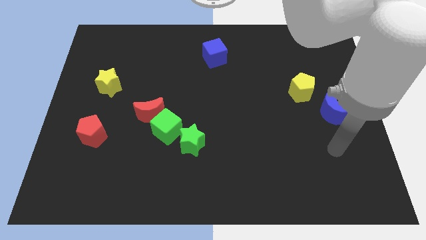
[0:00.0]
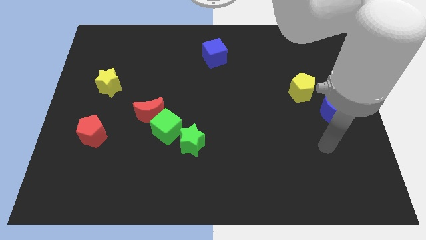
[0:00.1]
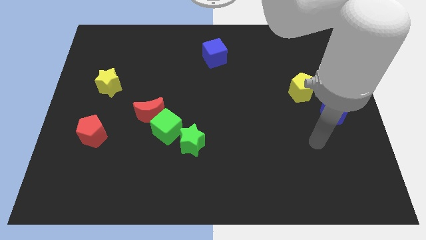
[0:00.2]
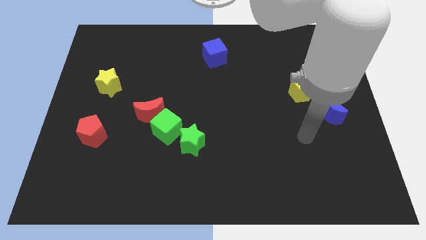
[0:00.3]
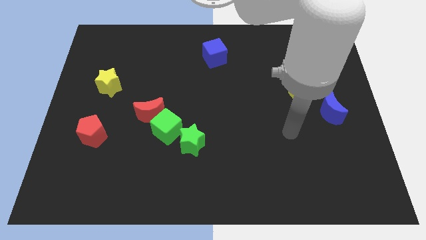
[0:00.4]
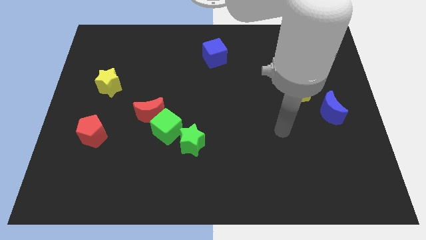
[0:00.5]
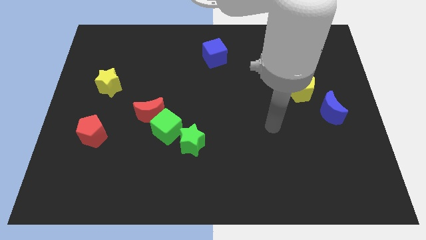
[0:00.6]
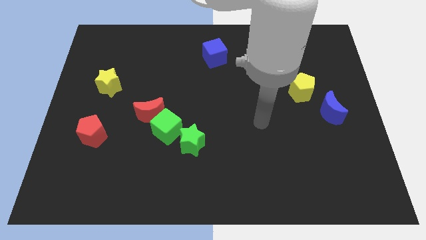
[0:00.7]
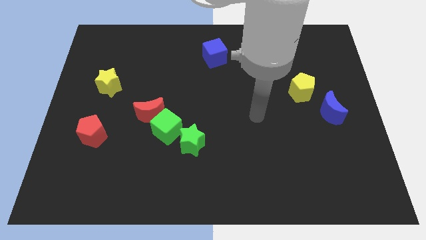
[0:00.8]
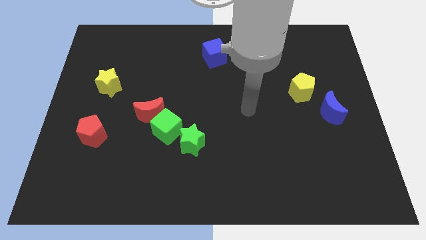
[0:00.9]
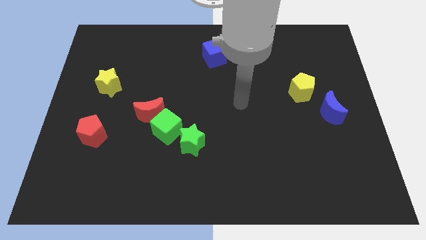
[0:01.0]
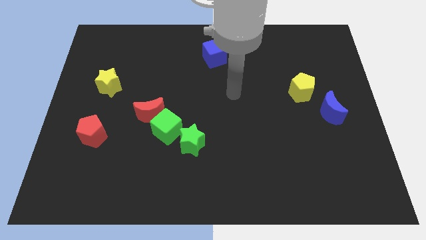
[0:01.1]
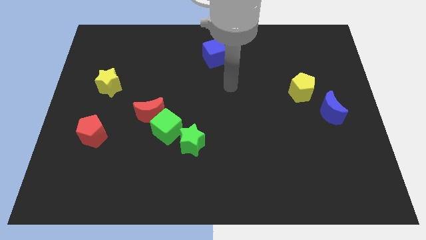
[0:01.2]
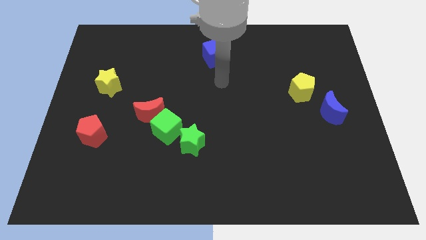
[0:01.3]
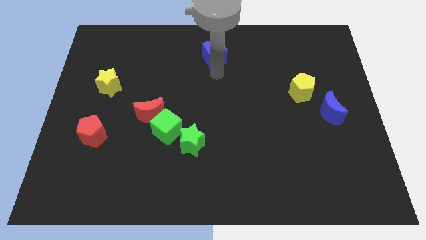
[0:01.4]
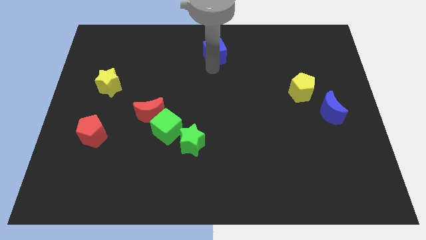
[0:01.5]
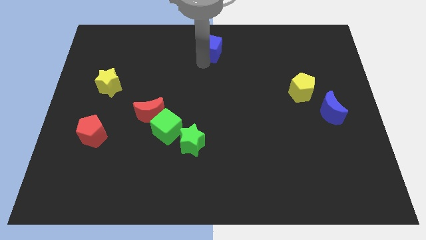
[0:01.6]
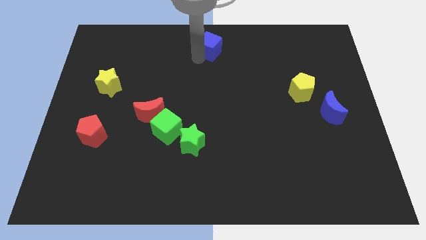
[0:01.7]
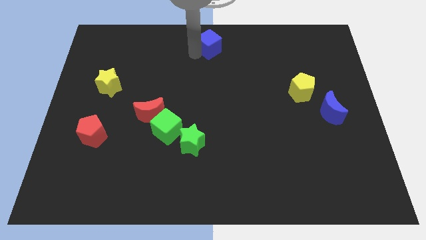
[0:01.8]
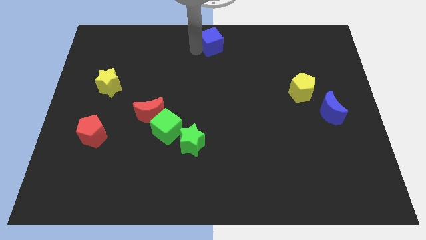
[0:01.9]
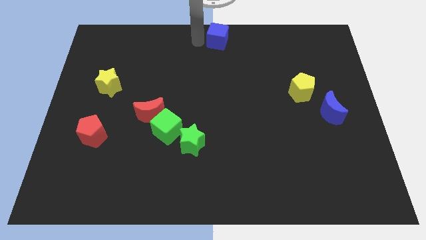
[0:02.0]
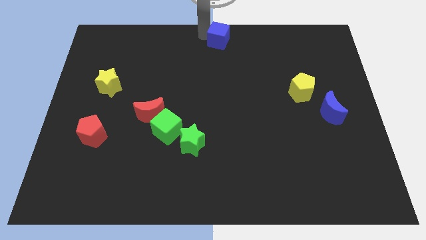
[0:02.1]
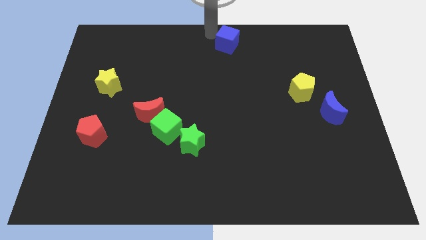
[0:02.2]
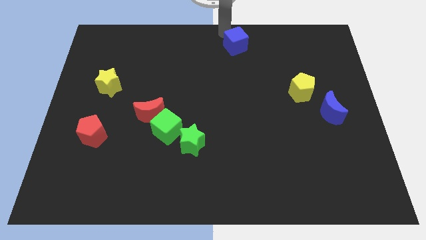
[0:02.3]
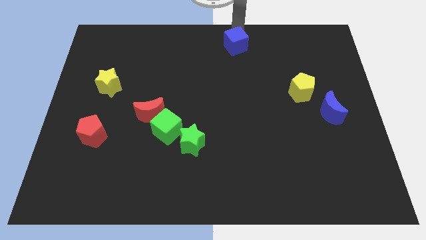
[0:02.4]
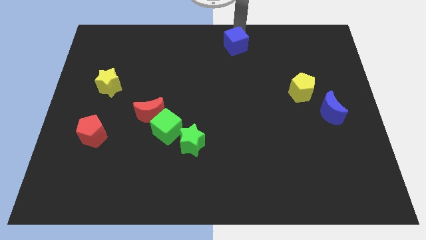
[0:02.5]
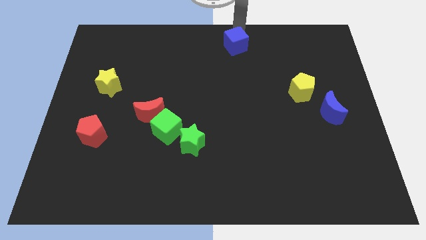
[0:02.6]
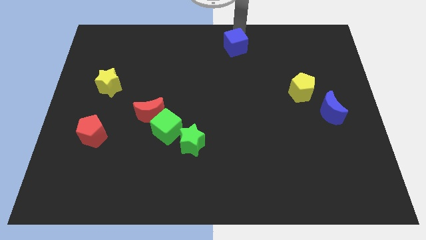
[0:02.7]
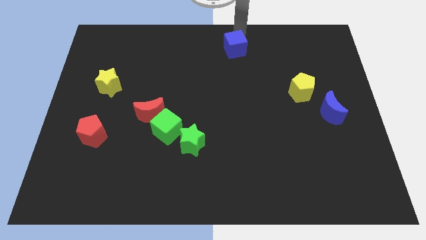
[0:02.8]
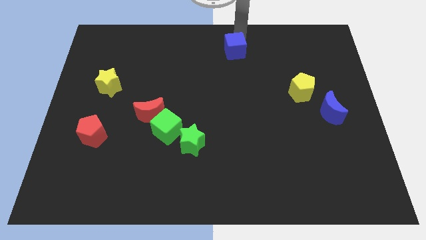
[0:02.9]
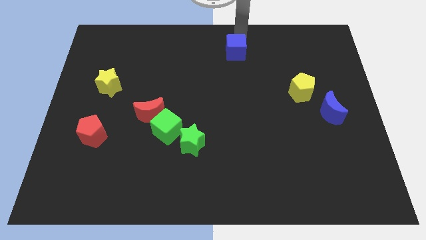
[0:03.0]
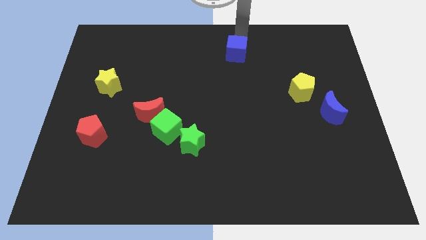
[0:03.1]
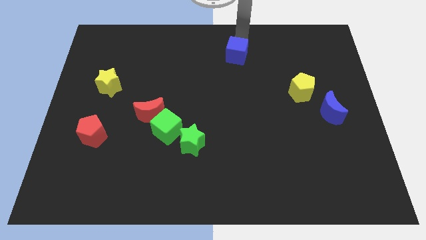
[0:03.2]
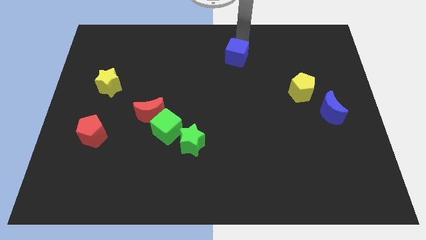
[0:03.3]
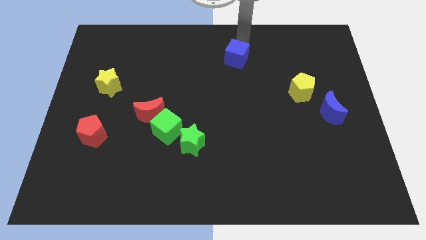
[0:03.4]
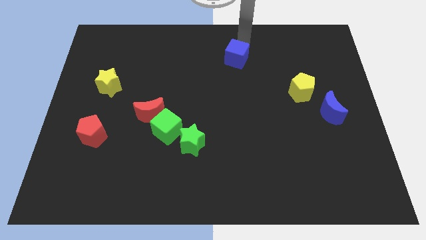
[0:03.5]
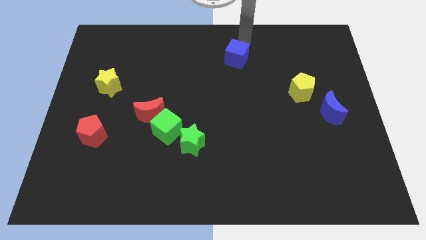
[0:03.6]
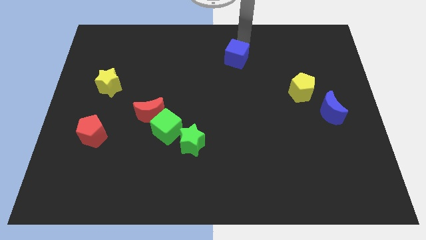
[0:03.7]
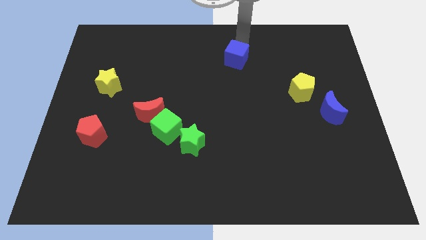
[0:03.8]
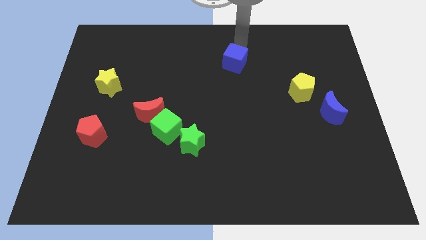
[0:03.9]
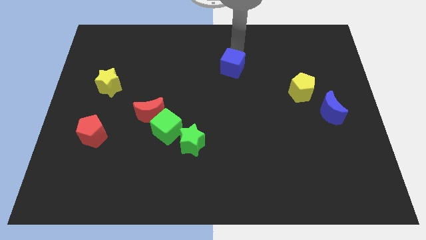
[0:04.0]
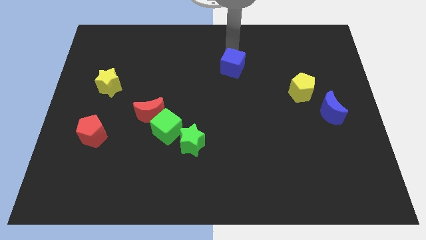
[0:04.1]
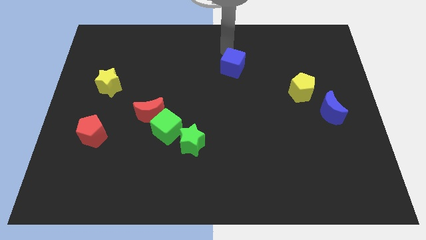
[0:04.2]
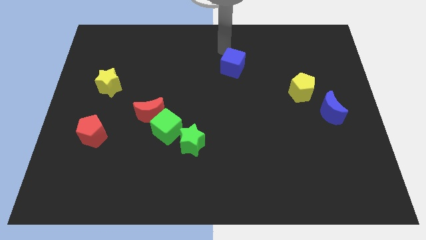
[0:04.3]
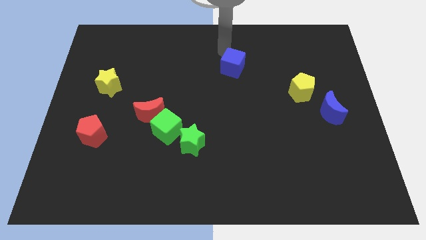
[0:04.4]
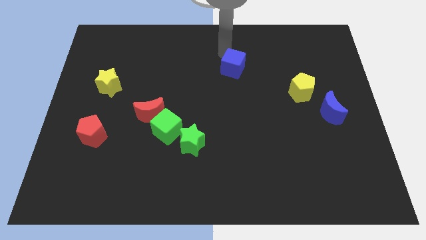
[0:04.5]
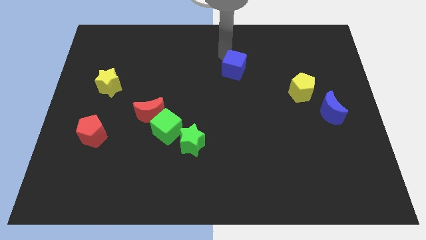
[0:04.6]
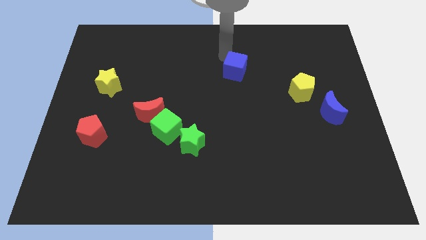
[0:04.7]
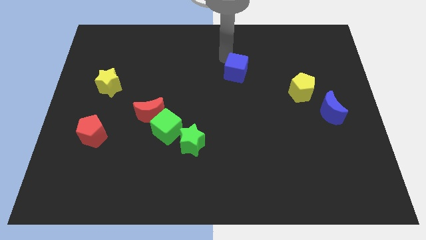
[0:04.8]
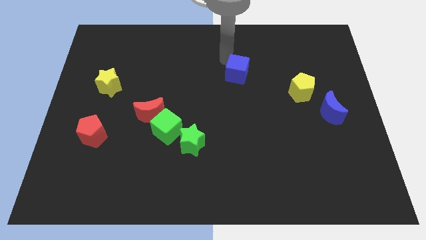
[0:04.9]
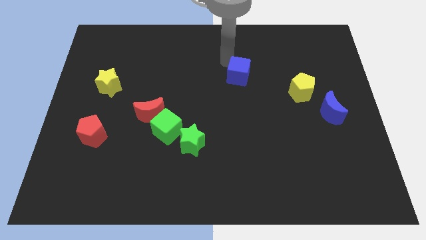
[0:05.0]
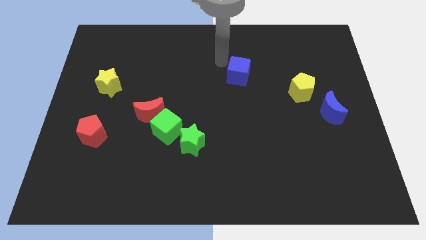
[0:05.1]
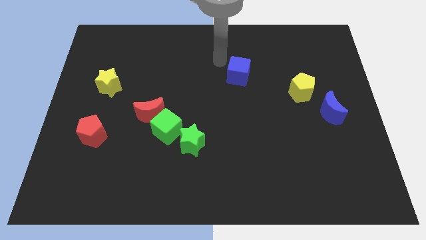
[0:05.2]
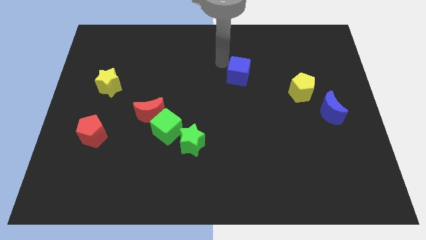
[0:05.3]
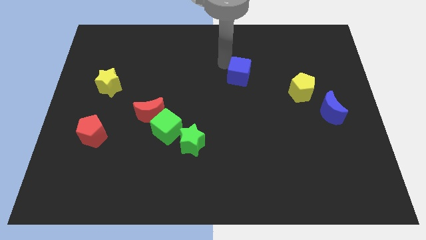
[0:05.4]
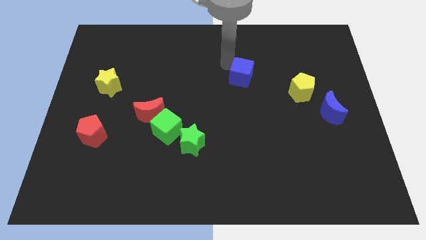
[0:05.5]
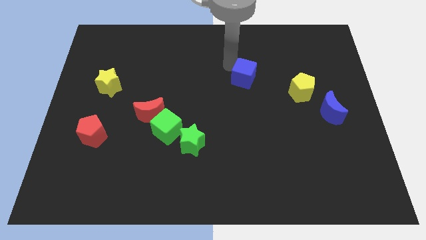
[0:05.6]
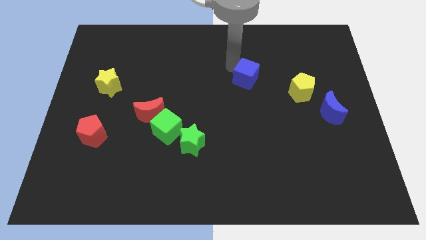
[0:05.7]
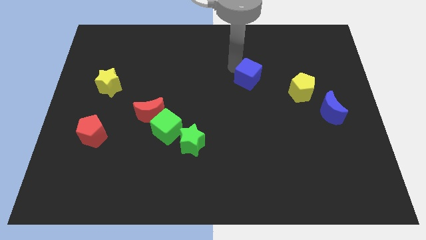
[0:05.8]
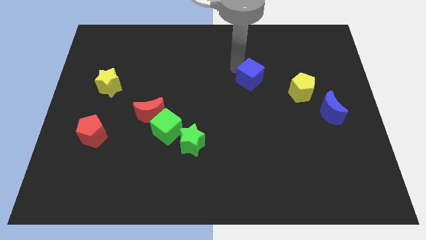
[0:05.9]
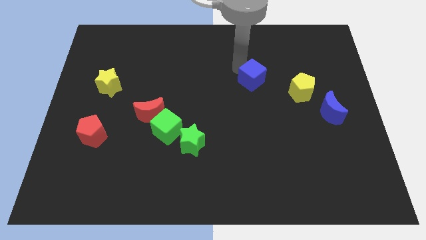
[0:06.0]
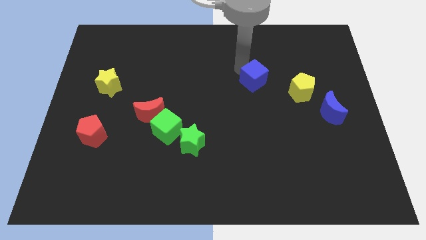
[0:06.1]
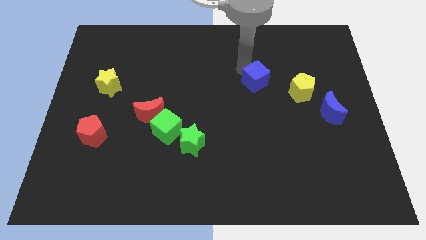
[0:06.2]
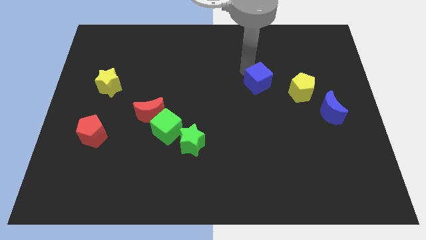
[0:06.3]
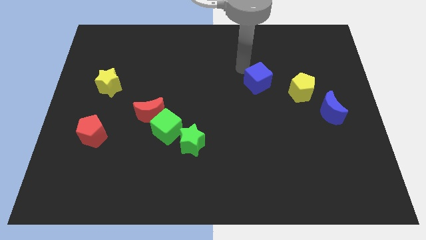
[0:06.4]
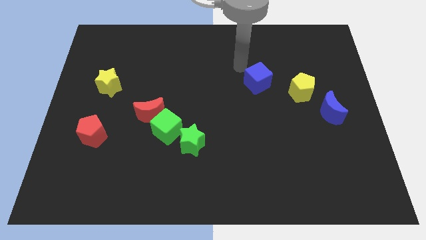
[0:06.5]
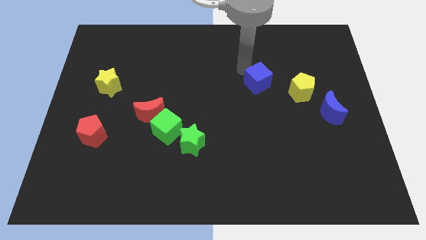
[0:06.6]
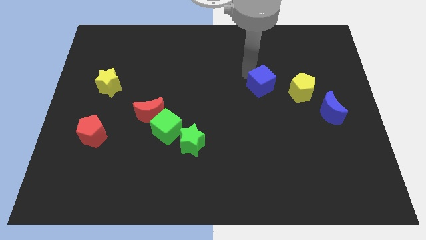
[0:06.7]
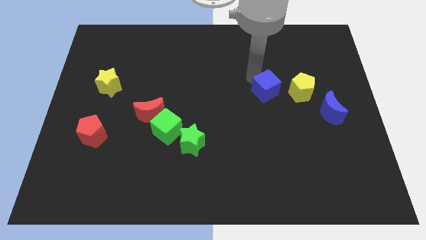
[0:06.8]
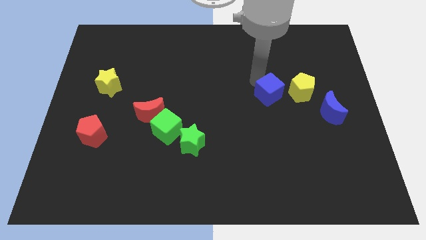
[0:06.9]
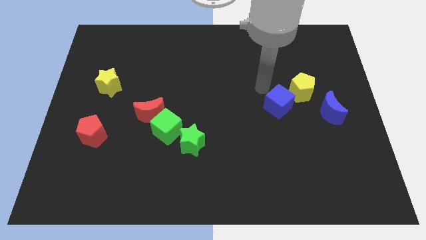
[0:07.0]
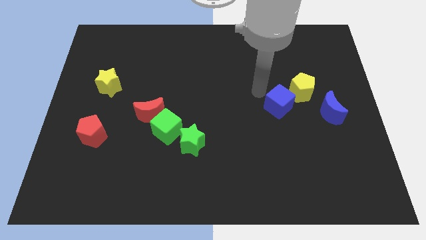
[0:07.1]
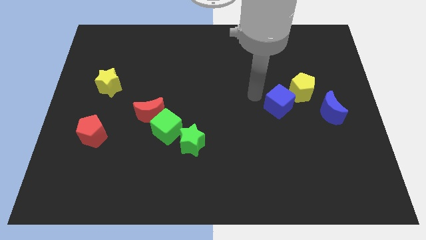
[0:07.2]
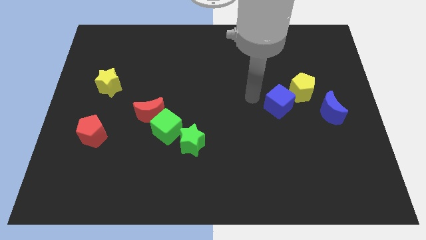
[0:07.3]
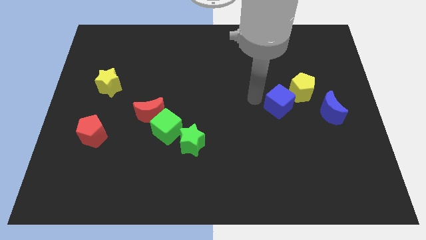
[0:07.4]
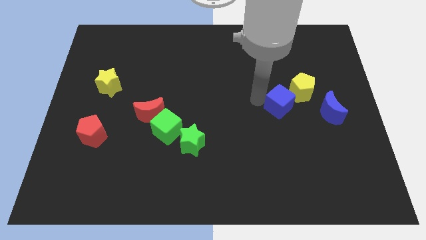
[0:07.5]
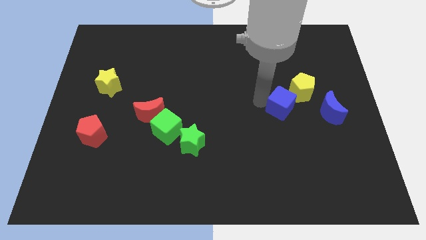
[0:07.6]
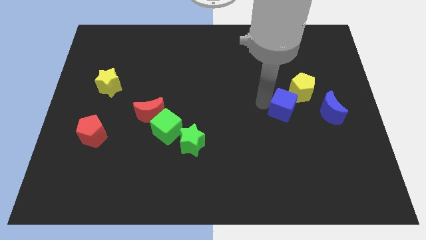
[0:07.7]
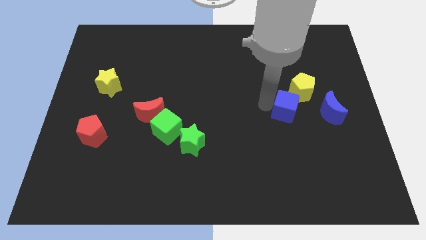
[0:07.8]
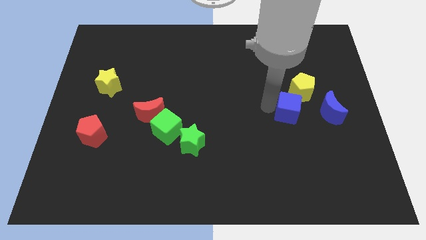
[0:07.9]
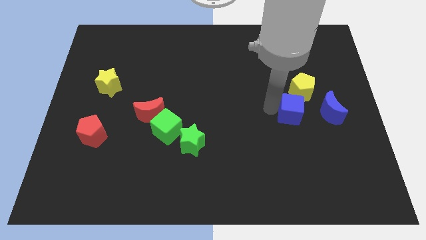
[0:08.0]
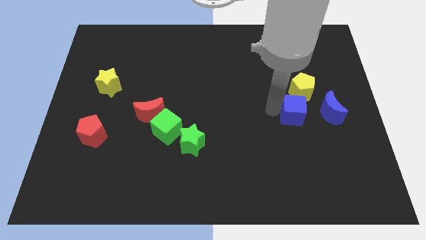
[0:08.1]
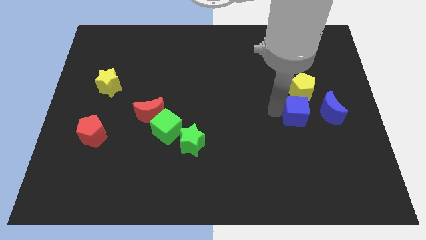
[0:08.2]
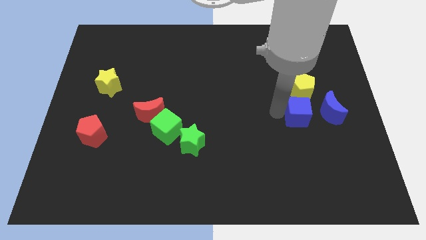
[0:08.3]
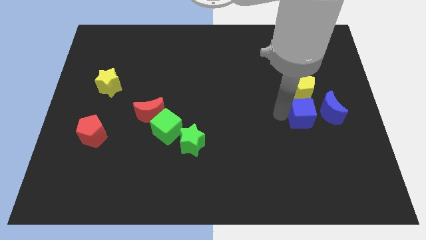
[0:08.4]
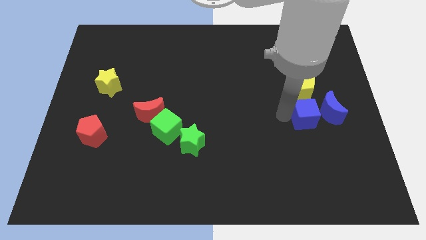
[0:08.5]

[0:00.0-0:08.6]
slide the blue cube towards the blue moon
